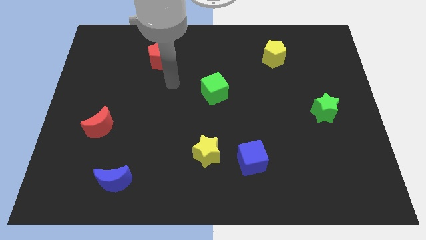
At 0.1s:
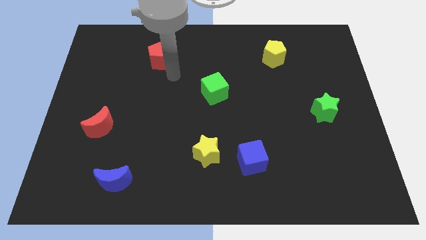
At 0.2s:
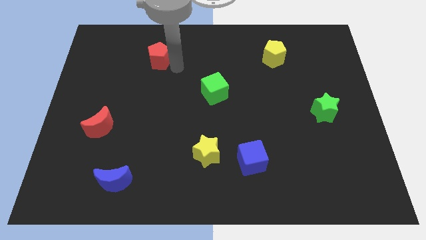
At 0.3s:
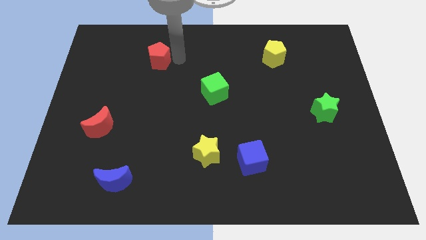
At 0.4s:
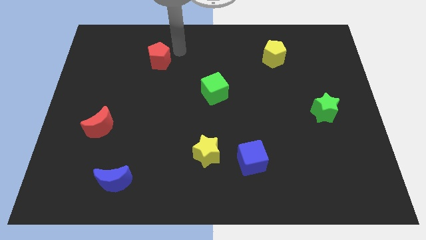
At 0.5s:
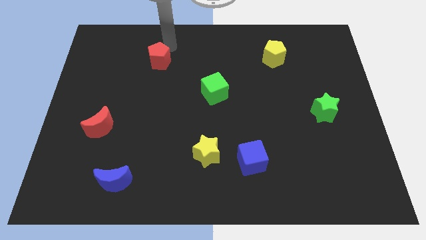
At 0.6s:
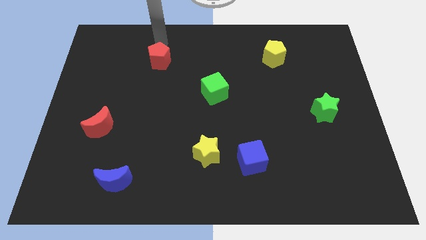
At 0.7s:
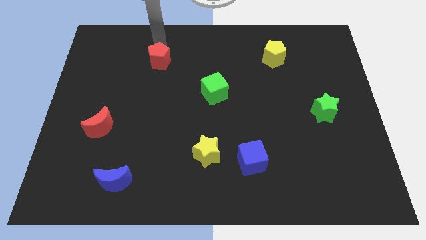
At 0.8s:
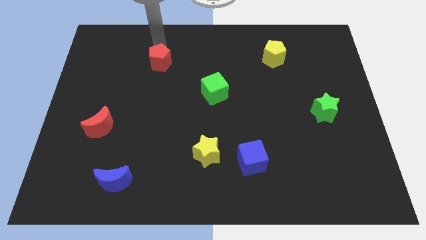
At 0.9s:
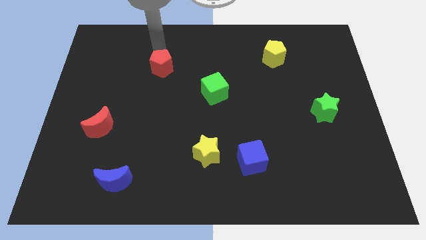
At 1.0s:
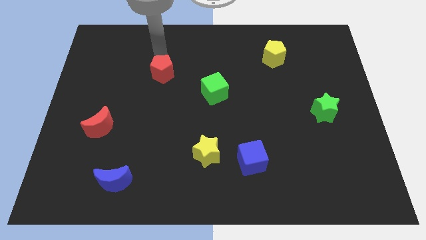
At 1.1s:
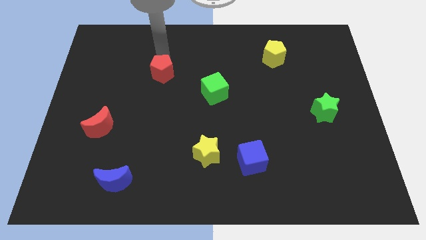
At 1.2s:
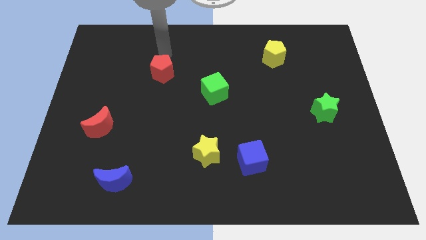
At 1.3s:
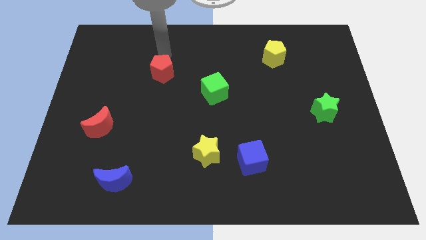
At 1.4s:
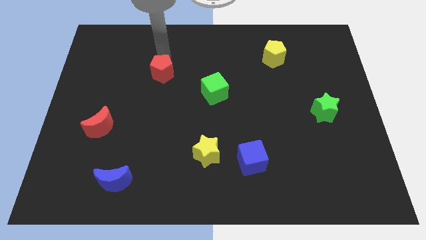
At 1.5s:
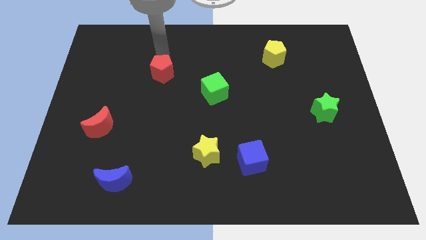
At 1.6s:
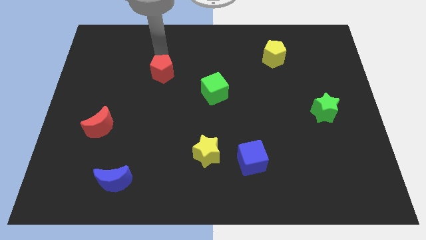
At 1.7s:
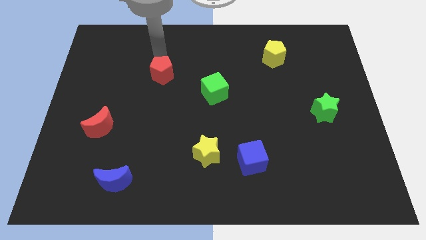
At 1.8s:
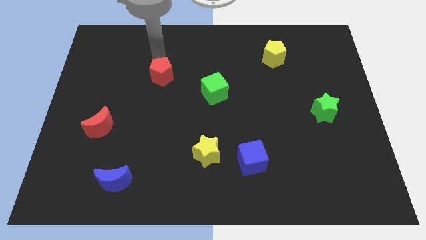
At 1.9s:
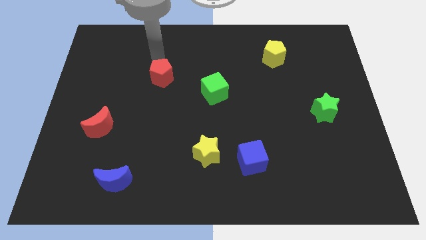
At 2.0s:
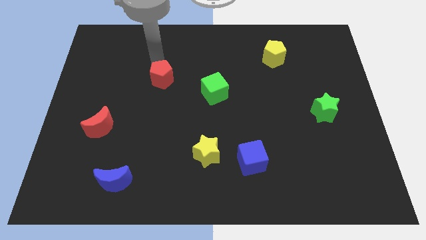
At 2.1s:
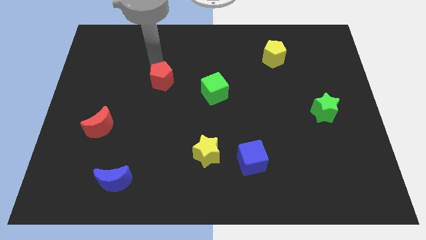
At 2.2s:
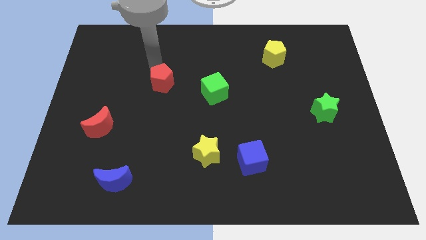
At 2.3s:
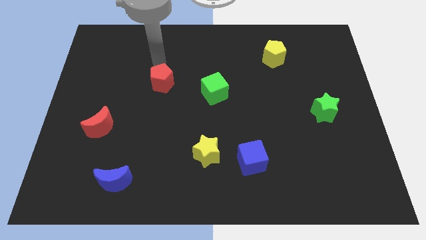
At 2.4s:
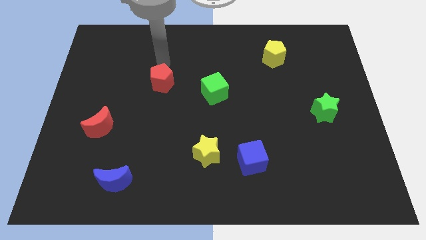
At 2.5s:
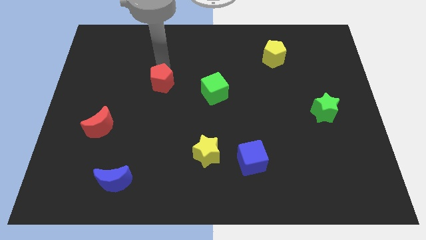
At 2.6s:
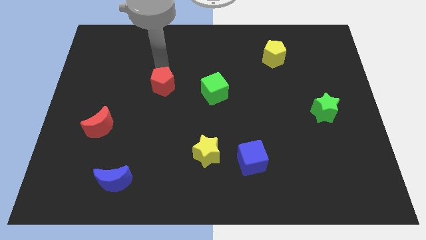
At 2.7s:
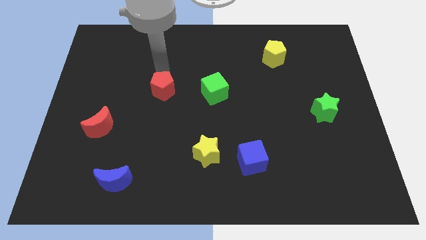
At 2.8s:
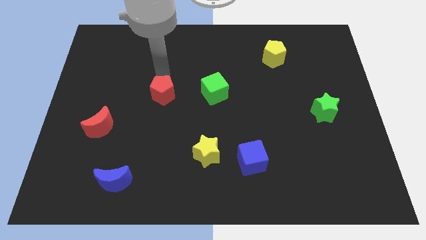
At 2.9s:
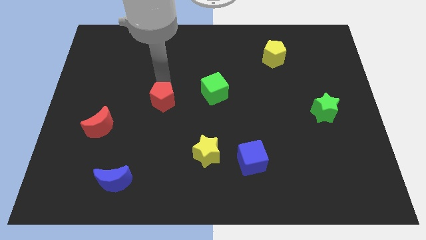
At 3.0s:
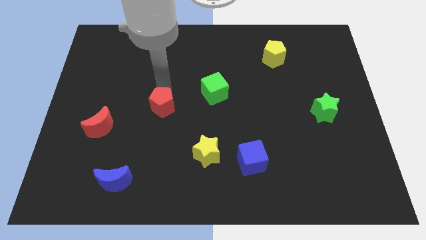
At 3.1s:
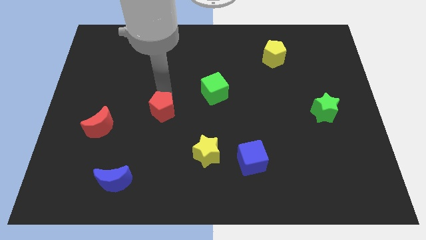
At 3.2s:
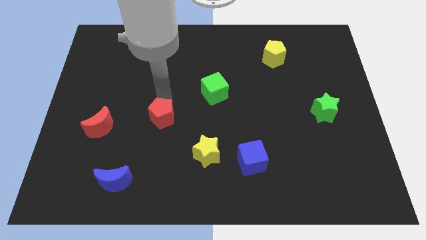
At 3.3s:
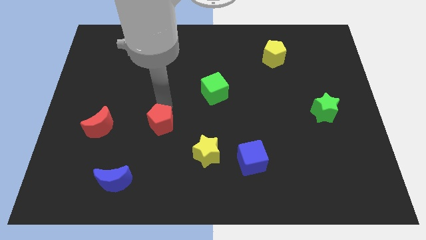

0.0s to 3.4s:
push the red pentagon downwards

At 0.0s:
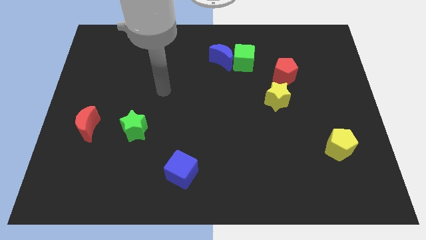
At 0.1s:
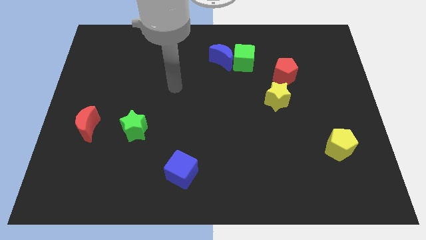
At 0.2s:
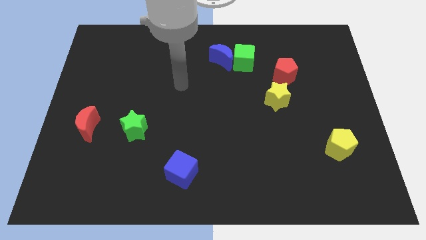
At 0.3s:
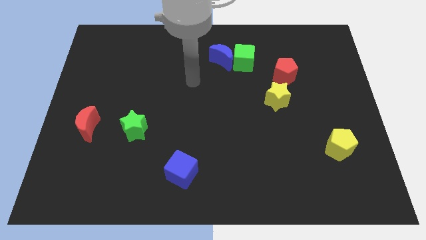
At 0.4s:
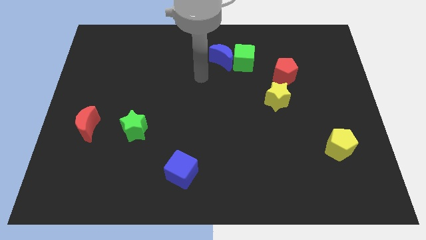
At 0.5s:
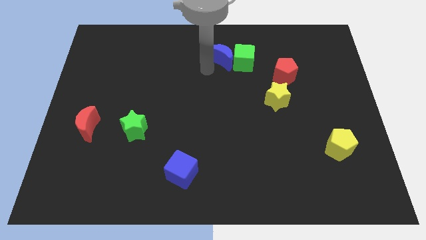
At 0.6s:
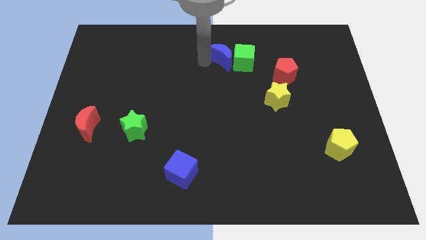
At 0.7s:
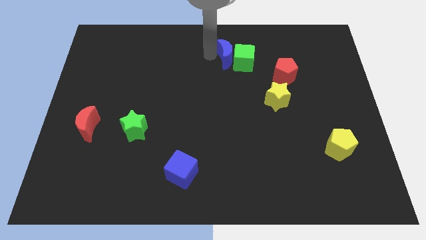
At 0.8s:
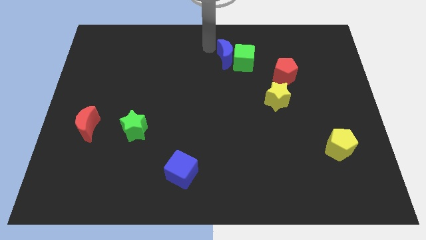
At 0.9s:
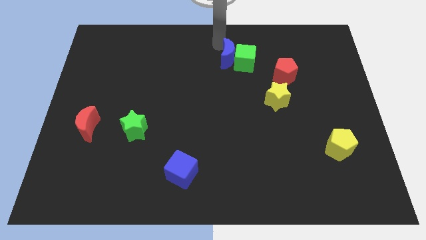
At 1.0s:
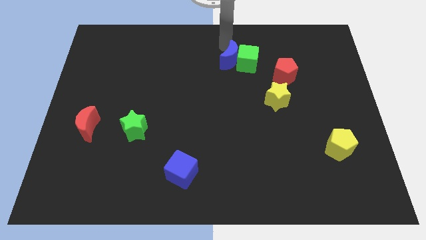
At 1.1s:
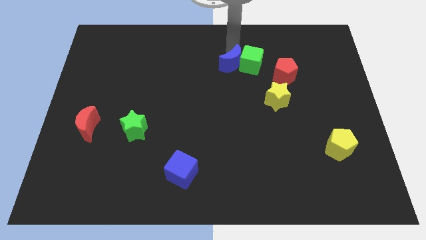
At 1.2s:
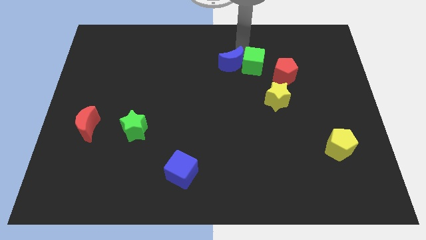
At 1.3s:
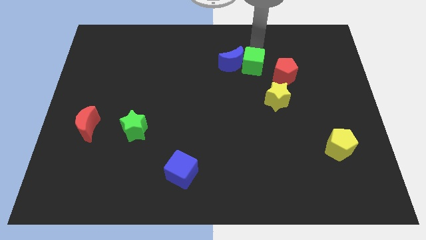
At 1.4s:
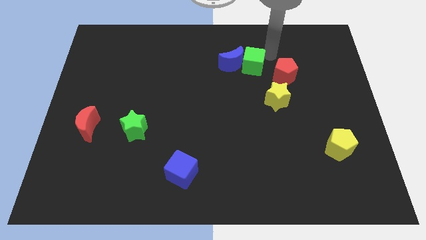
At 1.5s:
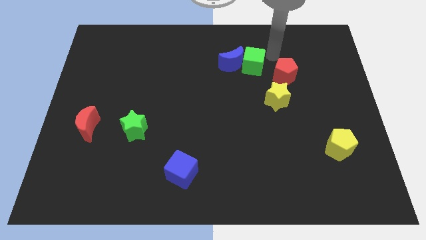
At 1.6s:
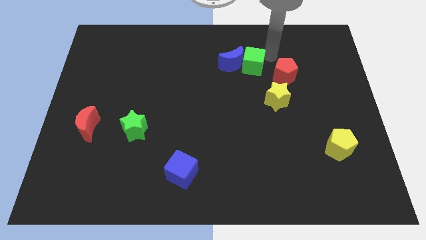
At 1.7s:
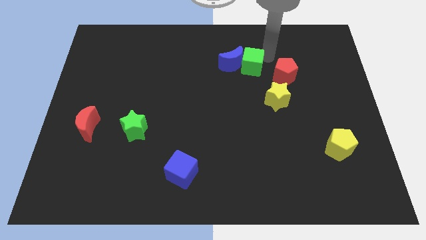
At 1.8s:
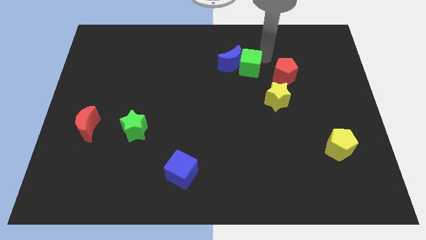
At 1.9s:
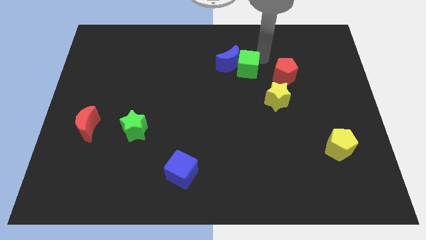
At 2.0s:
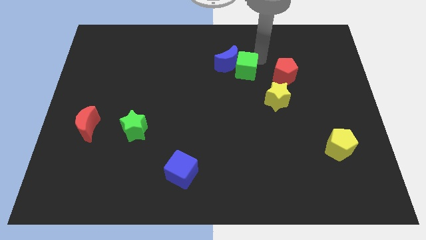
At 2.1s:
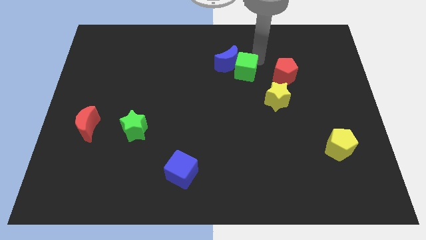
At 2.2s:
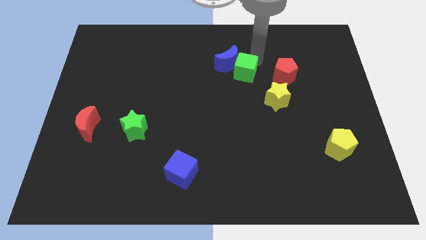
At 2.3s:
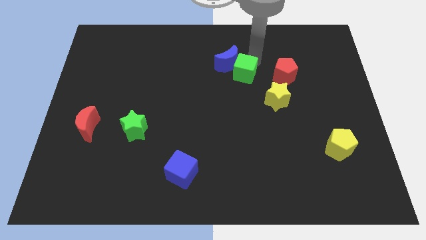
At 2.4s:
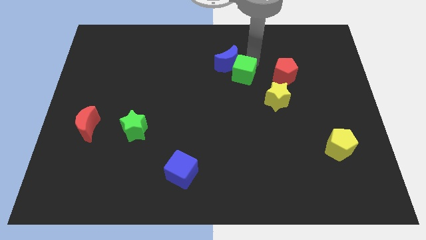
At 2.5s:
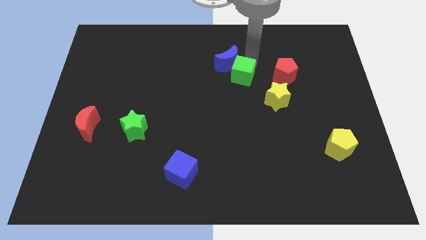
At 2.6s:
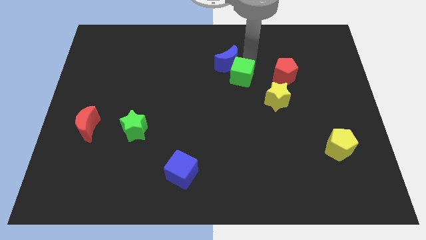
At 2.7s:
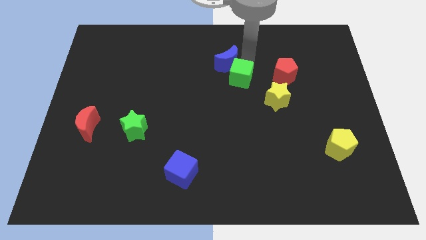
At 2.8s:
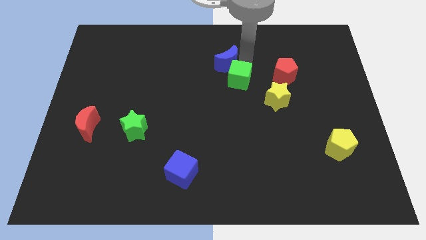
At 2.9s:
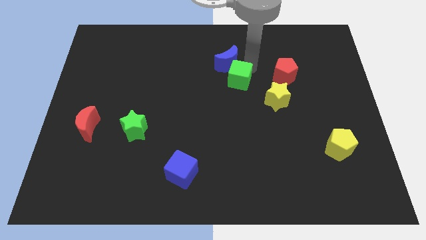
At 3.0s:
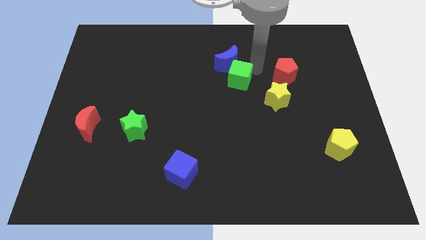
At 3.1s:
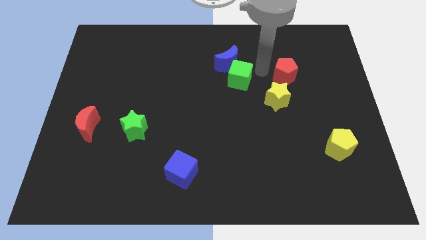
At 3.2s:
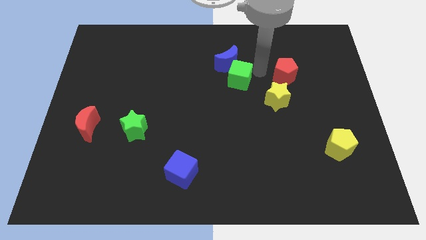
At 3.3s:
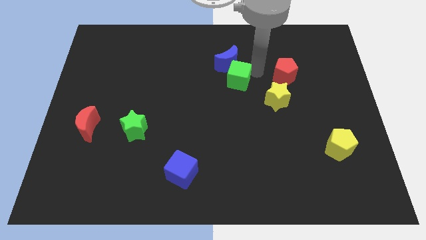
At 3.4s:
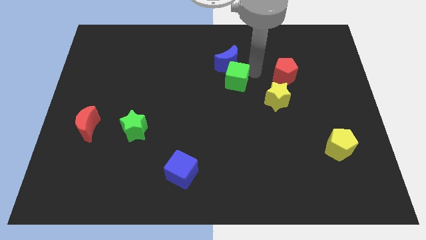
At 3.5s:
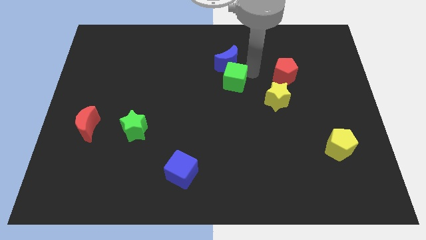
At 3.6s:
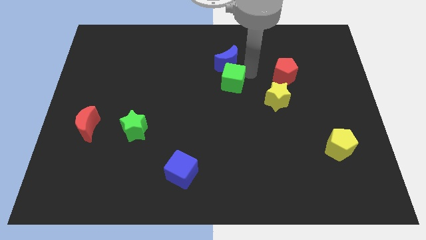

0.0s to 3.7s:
move the green cube a little bit downwards and left diagonally

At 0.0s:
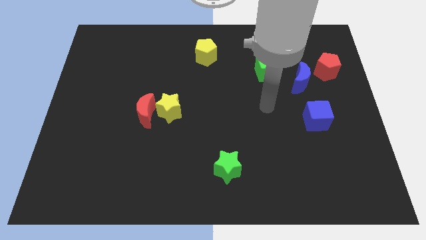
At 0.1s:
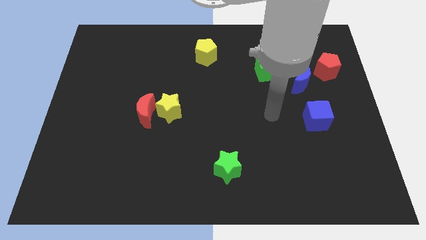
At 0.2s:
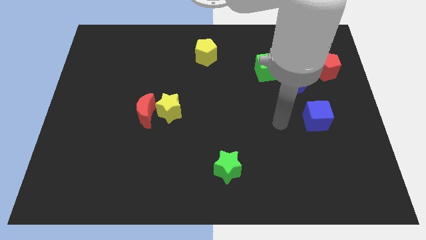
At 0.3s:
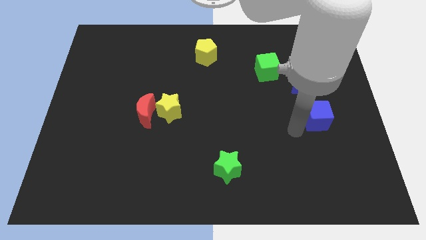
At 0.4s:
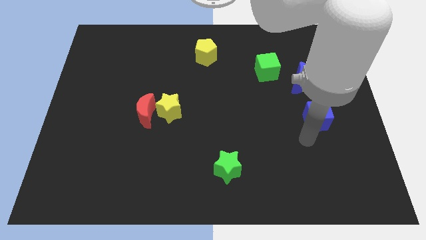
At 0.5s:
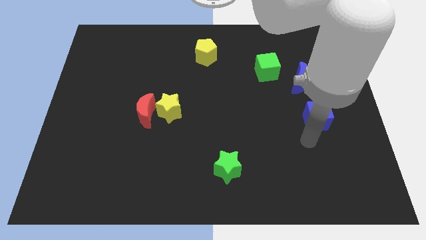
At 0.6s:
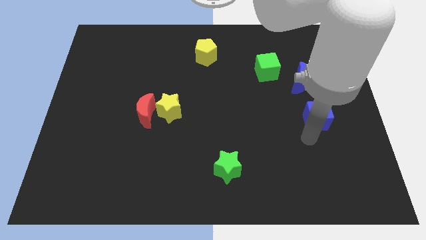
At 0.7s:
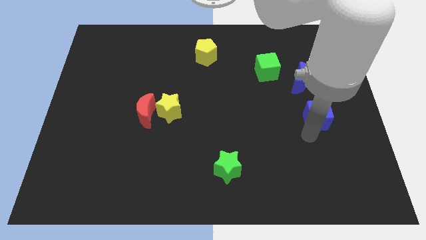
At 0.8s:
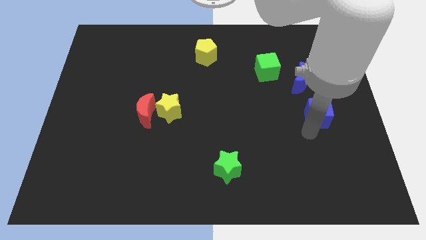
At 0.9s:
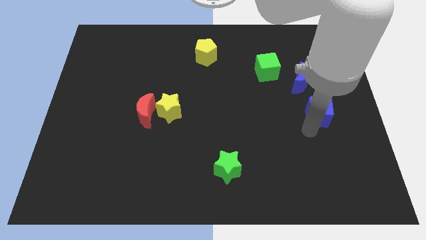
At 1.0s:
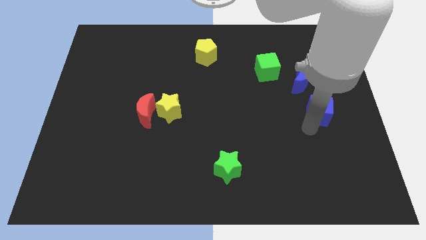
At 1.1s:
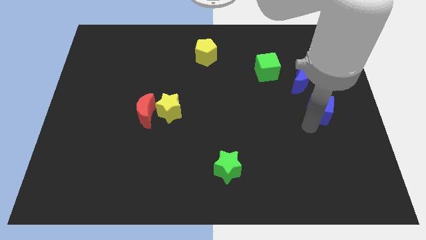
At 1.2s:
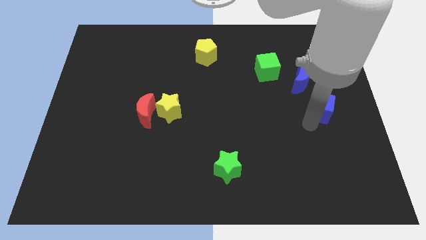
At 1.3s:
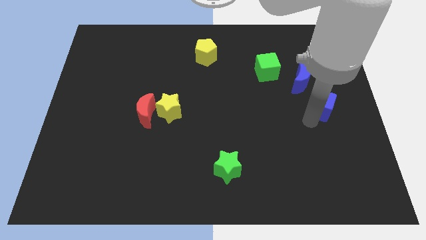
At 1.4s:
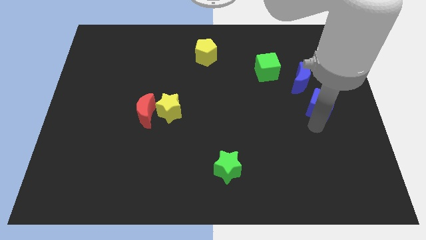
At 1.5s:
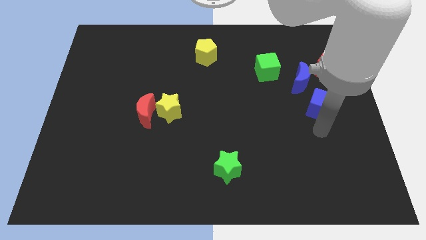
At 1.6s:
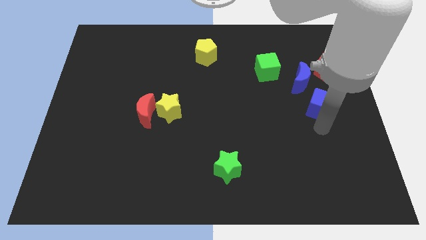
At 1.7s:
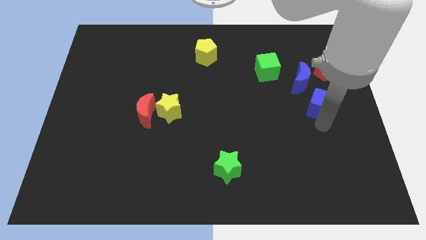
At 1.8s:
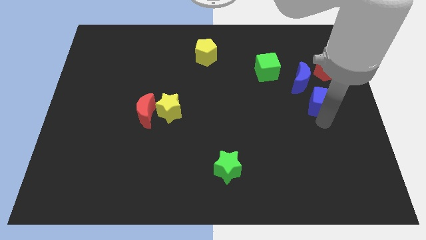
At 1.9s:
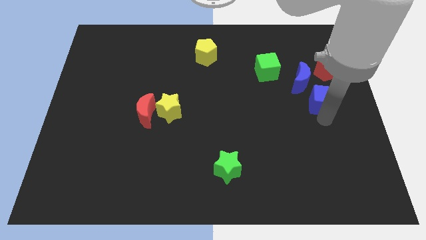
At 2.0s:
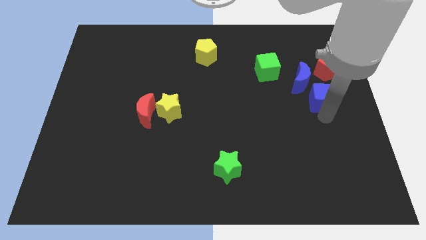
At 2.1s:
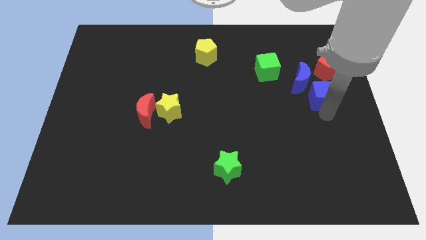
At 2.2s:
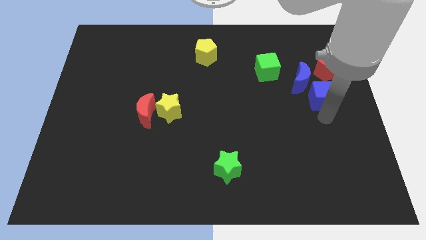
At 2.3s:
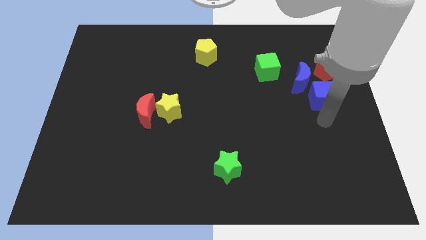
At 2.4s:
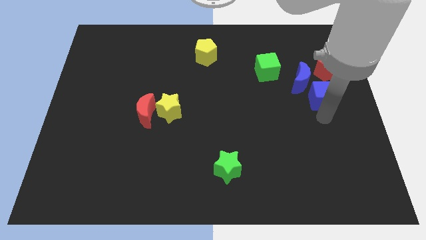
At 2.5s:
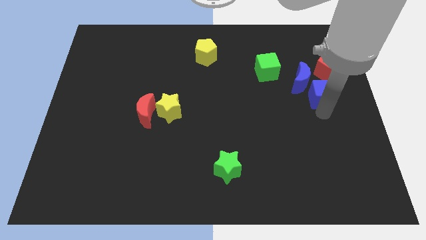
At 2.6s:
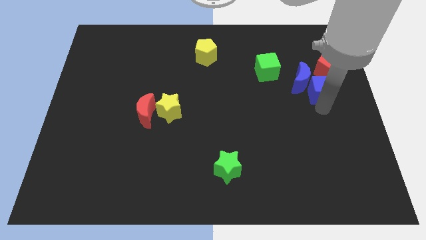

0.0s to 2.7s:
slide the blue cube upwards a little bit
